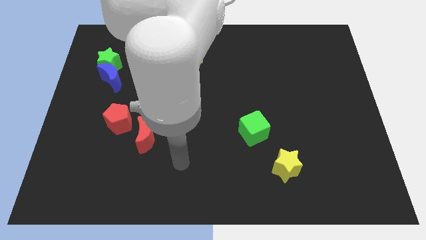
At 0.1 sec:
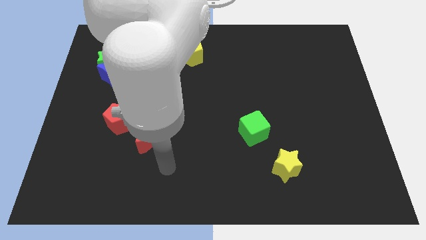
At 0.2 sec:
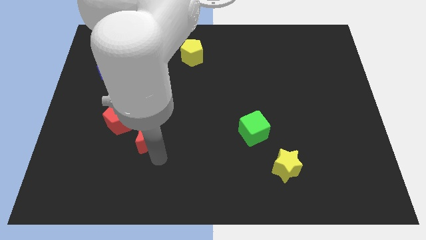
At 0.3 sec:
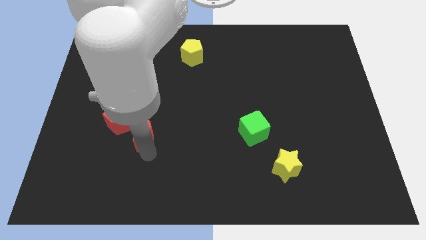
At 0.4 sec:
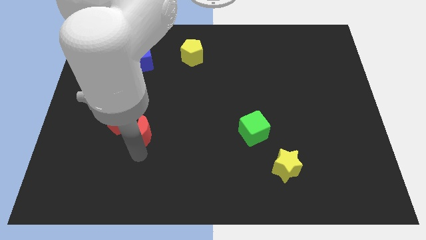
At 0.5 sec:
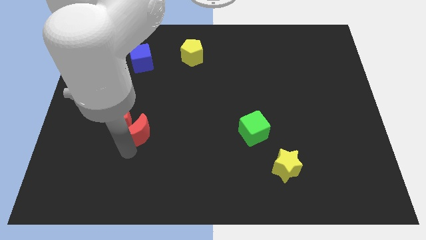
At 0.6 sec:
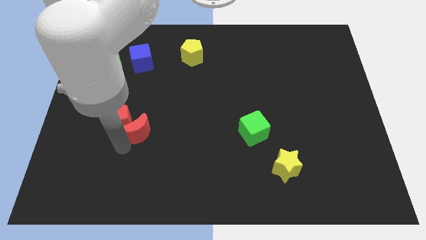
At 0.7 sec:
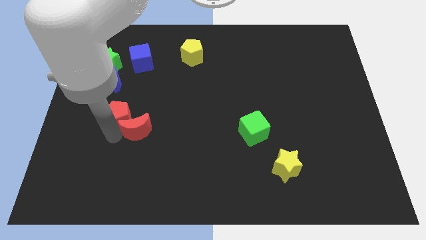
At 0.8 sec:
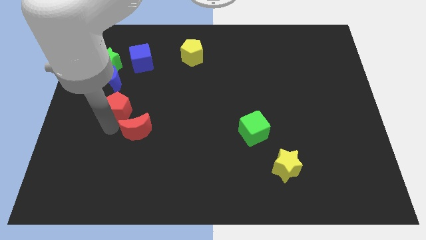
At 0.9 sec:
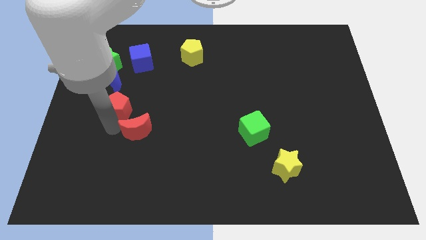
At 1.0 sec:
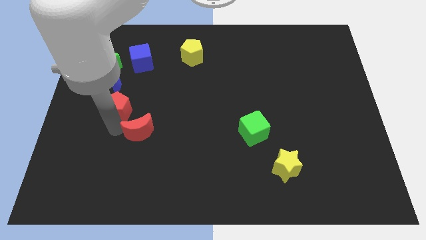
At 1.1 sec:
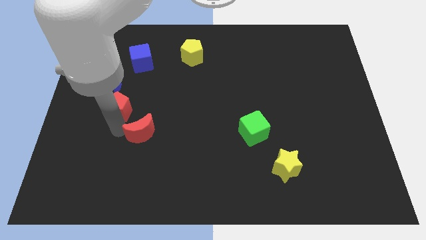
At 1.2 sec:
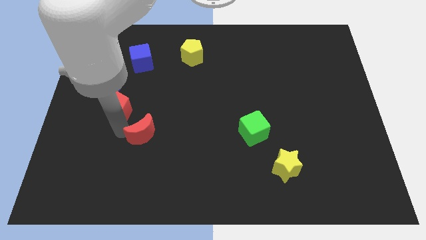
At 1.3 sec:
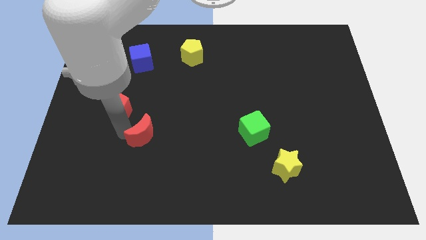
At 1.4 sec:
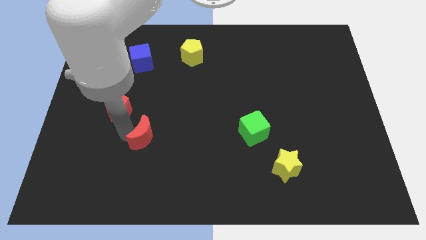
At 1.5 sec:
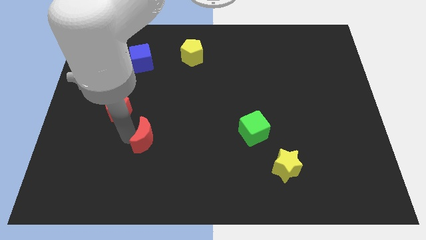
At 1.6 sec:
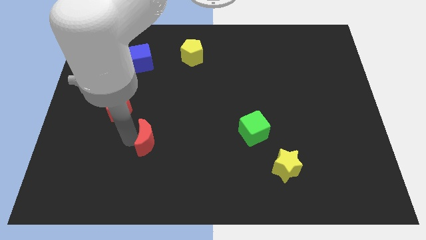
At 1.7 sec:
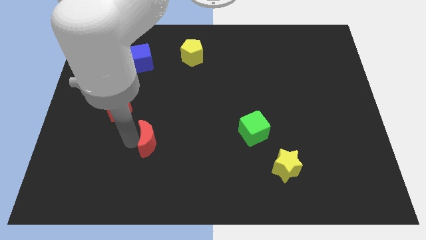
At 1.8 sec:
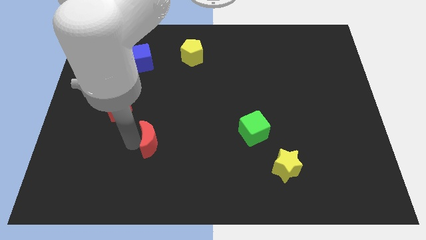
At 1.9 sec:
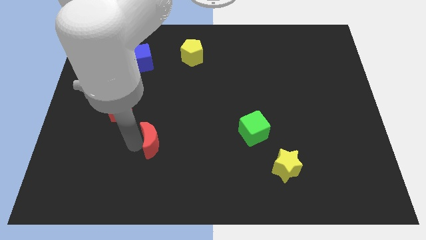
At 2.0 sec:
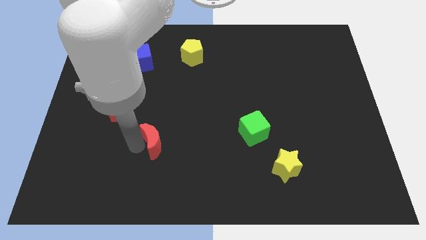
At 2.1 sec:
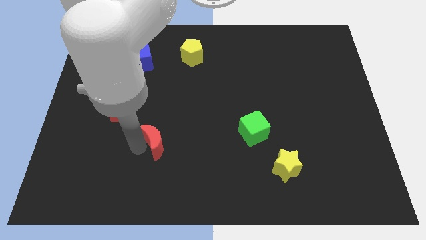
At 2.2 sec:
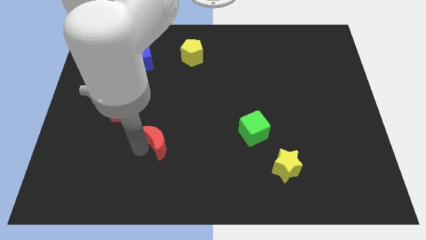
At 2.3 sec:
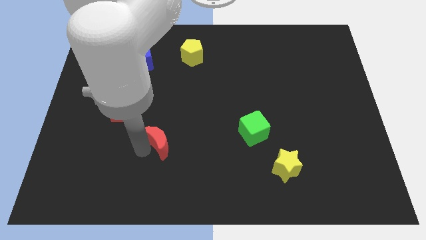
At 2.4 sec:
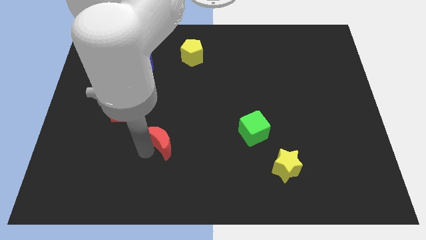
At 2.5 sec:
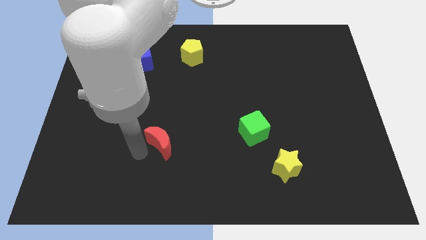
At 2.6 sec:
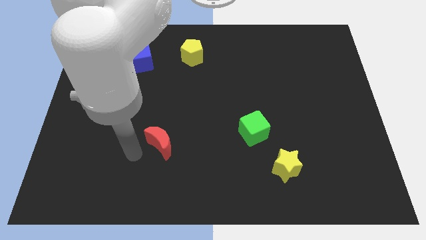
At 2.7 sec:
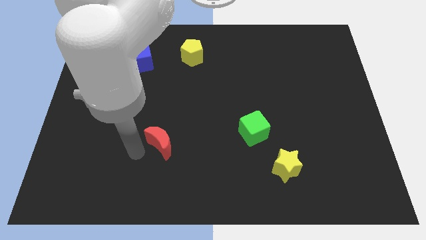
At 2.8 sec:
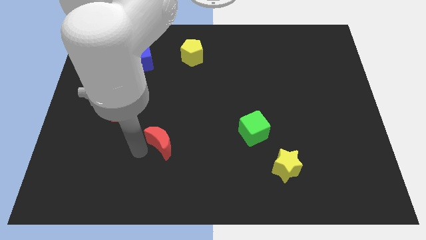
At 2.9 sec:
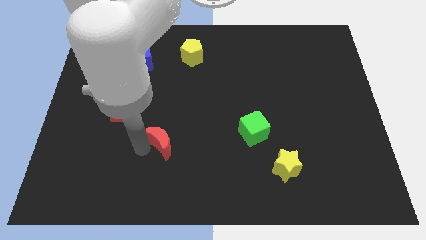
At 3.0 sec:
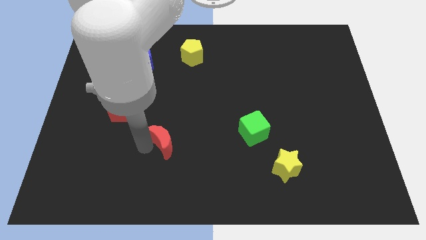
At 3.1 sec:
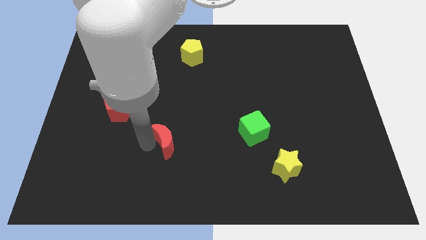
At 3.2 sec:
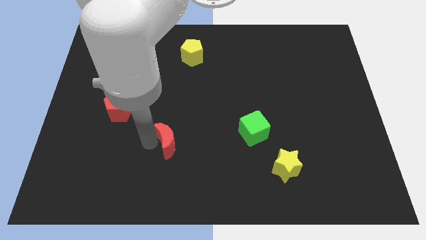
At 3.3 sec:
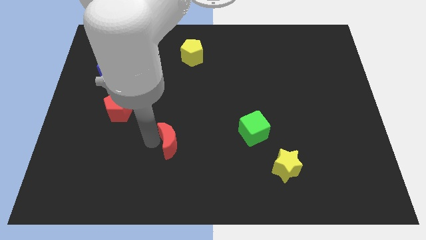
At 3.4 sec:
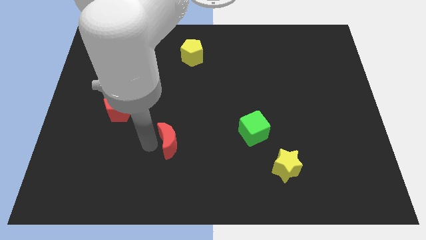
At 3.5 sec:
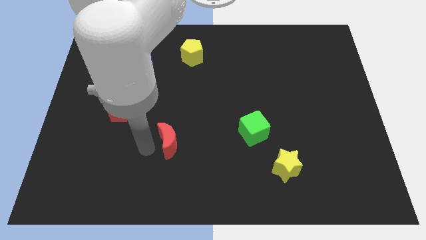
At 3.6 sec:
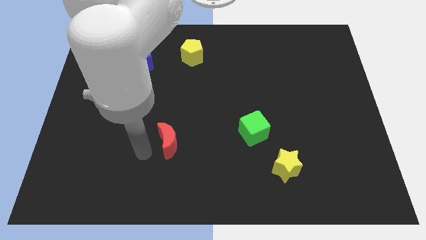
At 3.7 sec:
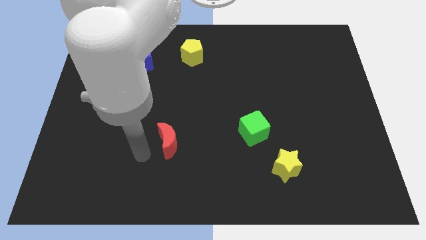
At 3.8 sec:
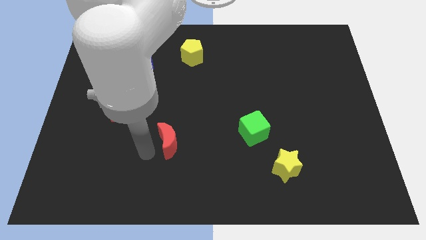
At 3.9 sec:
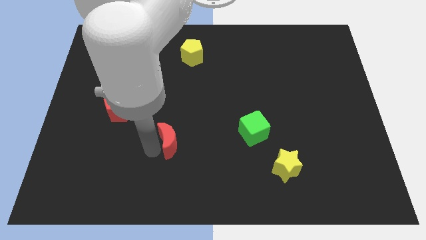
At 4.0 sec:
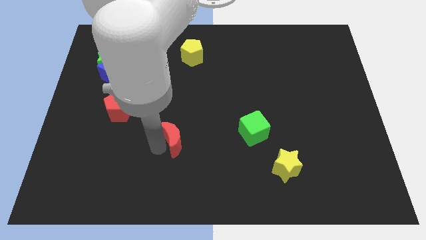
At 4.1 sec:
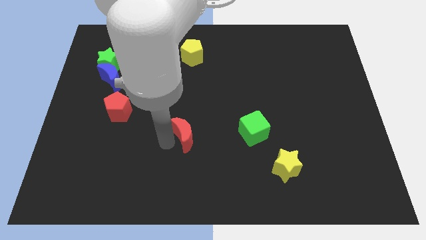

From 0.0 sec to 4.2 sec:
slightly move the red moon to the right

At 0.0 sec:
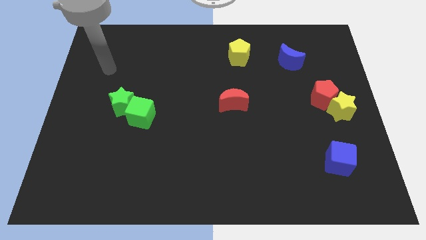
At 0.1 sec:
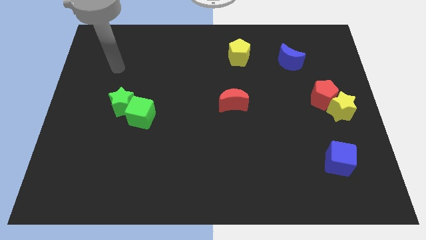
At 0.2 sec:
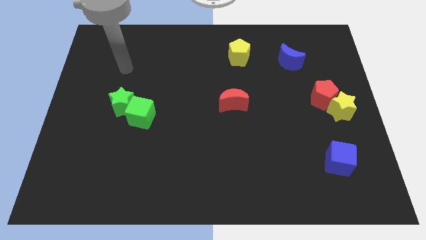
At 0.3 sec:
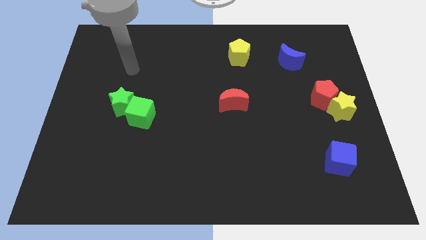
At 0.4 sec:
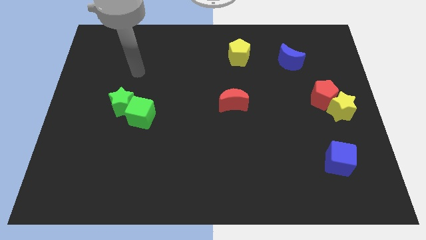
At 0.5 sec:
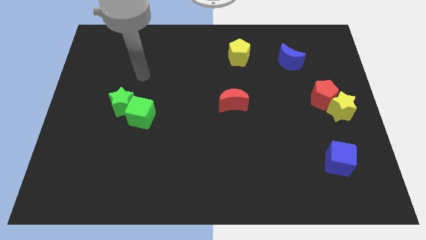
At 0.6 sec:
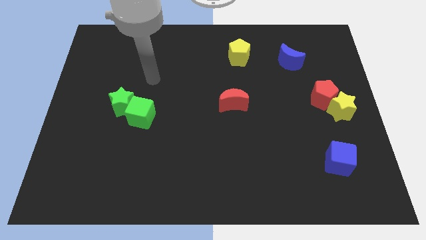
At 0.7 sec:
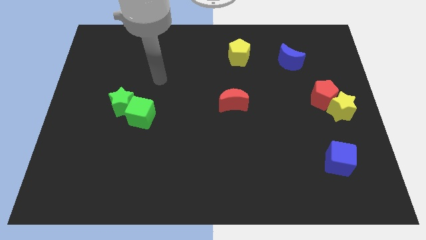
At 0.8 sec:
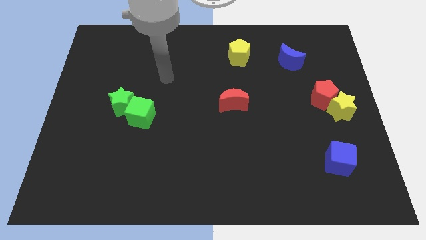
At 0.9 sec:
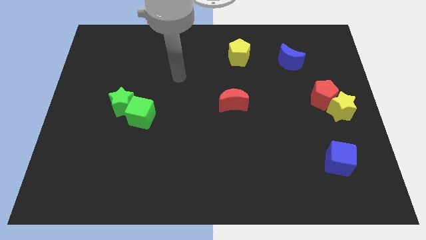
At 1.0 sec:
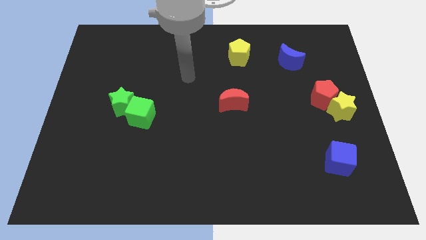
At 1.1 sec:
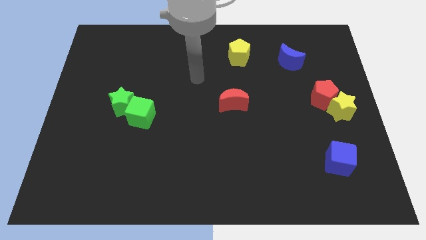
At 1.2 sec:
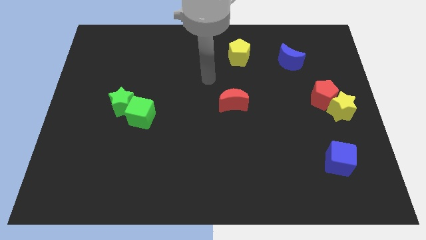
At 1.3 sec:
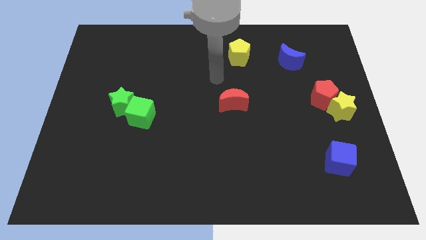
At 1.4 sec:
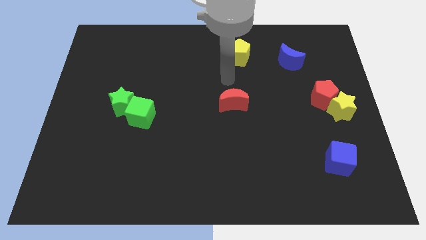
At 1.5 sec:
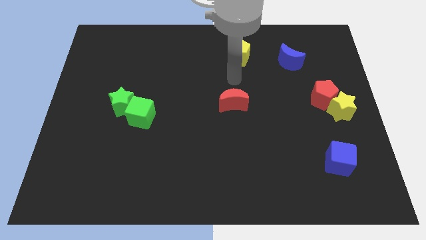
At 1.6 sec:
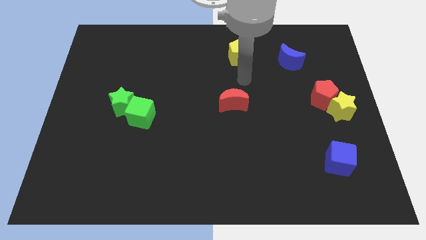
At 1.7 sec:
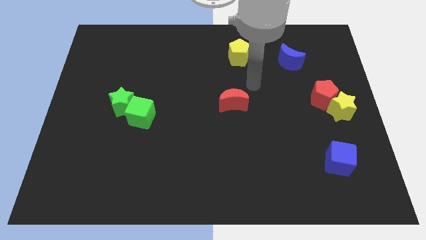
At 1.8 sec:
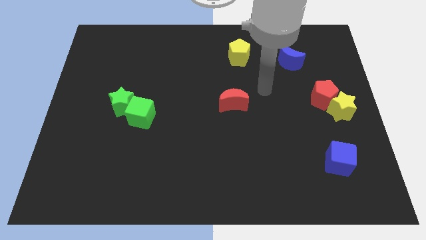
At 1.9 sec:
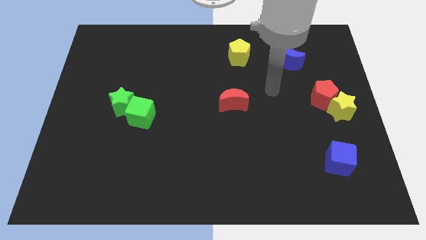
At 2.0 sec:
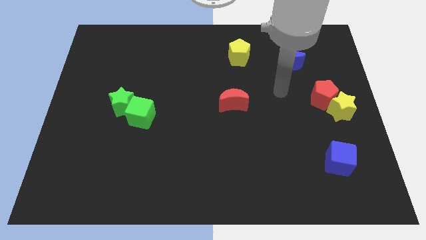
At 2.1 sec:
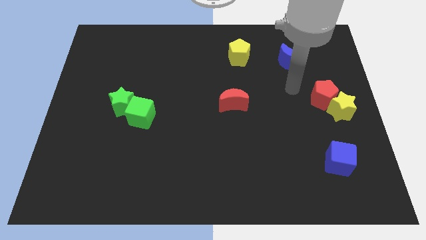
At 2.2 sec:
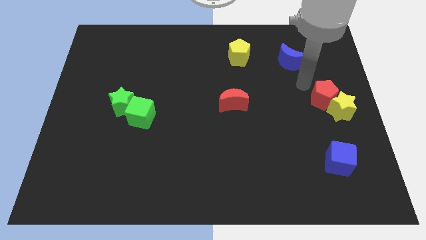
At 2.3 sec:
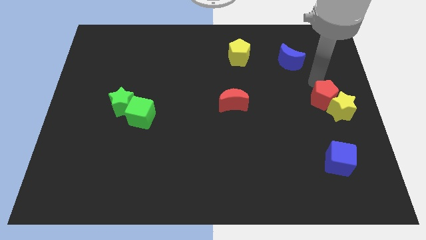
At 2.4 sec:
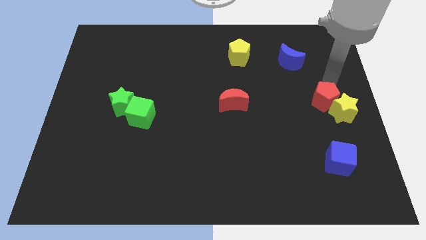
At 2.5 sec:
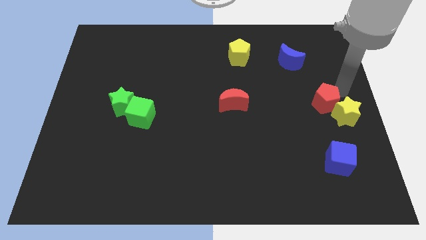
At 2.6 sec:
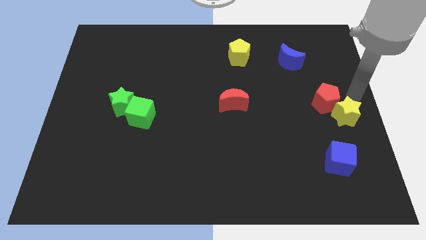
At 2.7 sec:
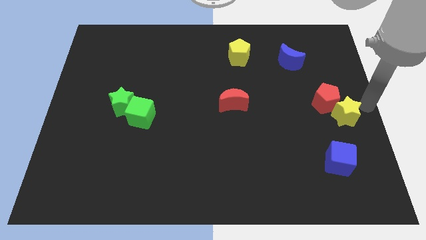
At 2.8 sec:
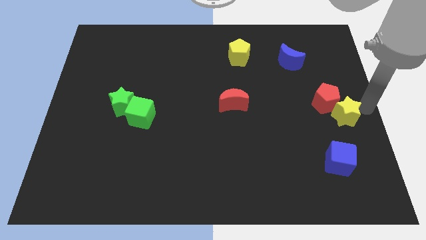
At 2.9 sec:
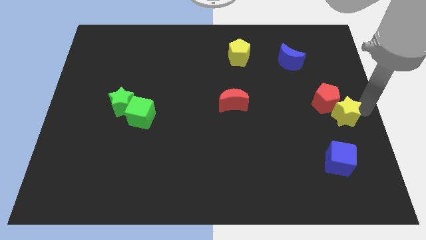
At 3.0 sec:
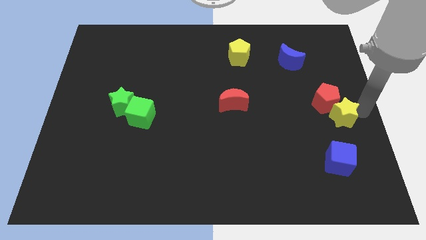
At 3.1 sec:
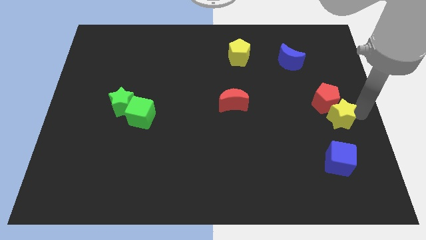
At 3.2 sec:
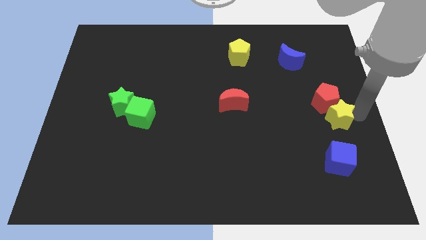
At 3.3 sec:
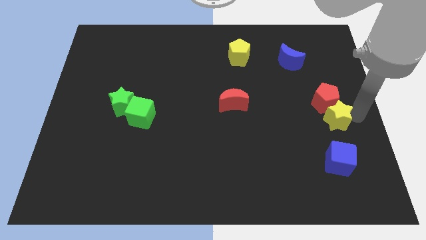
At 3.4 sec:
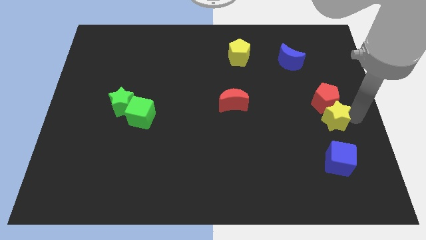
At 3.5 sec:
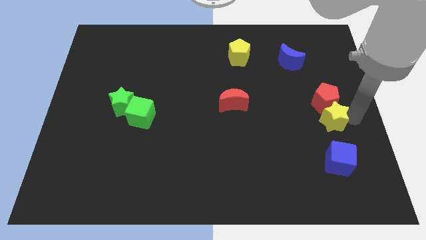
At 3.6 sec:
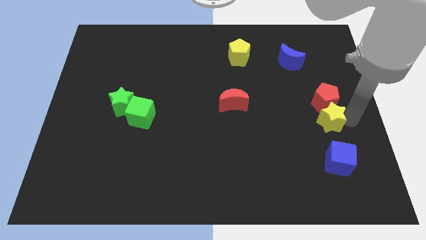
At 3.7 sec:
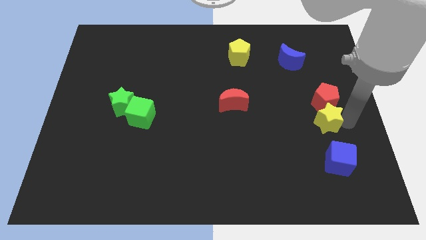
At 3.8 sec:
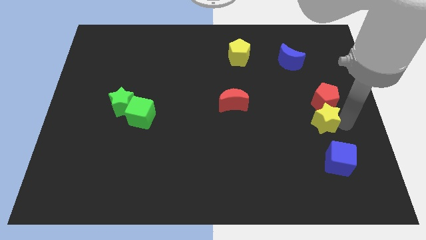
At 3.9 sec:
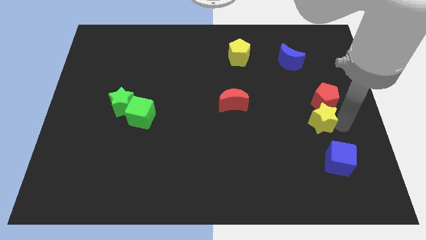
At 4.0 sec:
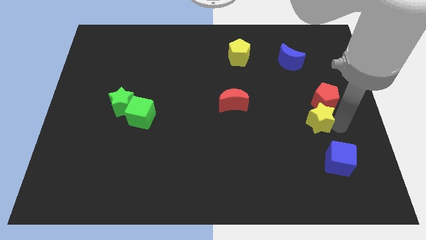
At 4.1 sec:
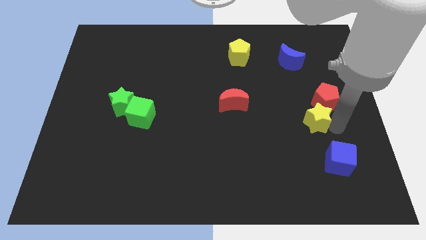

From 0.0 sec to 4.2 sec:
slide the yellow star a little down and left

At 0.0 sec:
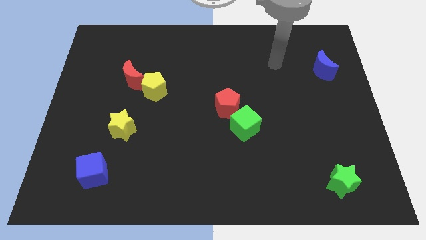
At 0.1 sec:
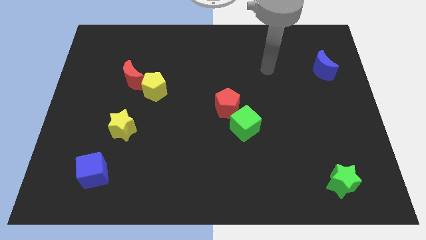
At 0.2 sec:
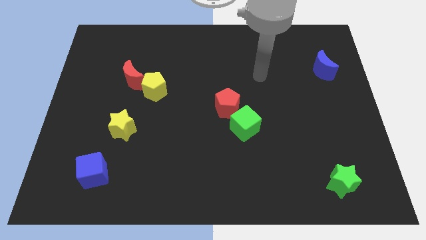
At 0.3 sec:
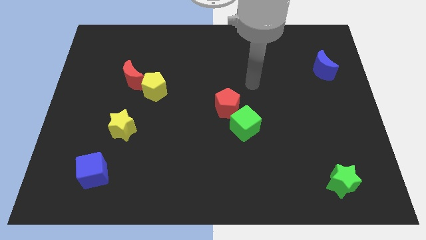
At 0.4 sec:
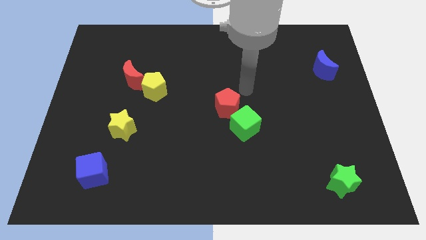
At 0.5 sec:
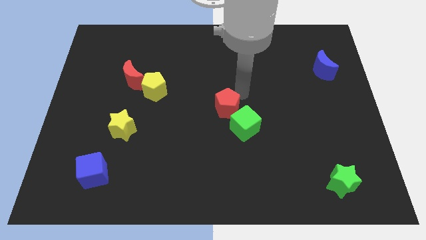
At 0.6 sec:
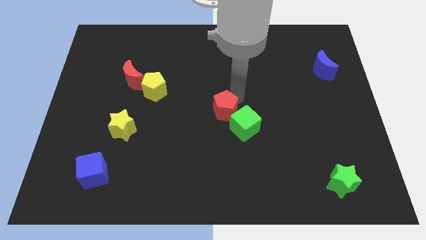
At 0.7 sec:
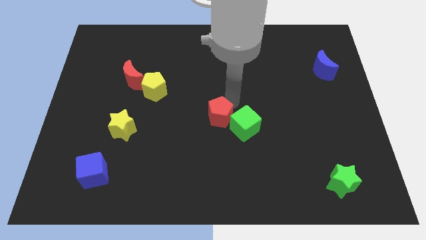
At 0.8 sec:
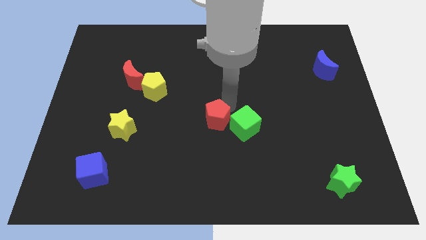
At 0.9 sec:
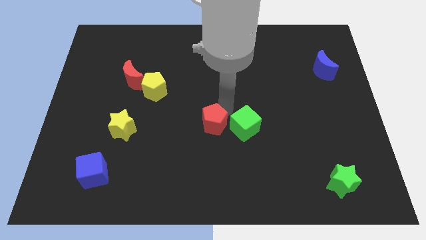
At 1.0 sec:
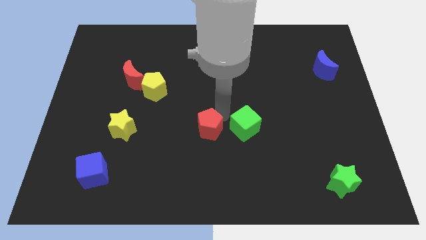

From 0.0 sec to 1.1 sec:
slightly move the red pentagon diagonally down and left
